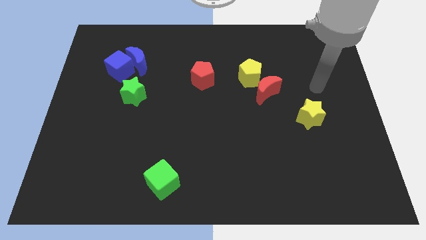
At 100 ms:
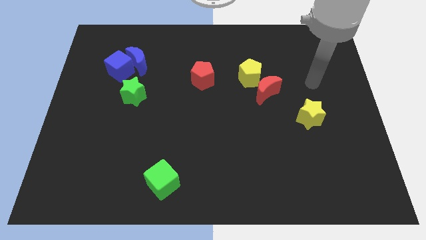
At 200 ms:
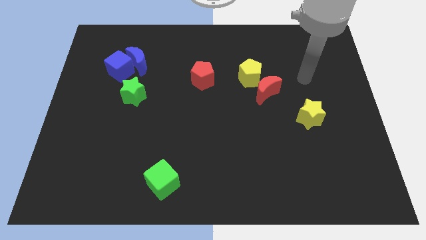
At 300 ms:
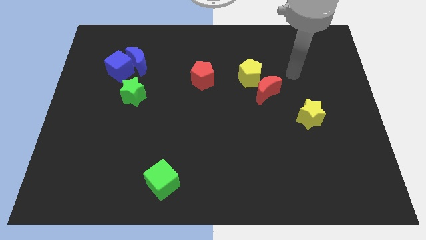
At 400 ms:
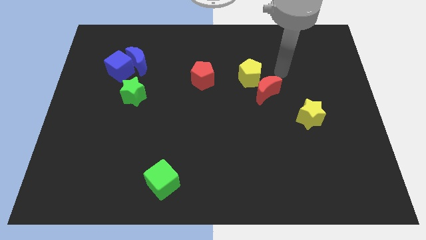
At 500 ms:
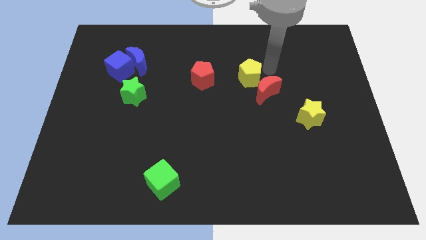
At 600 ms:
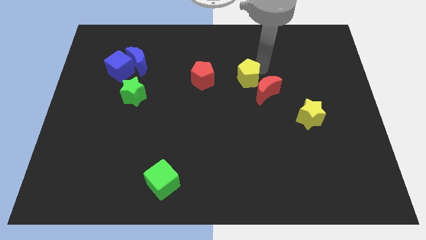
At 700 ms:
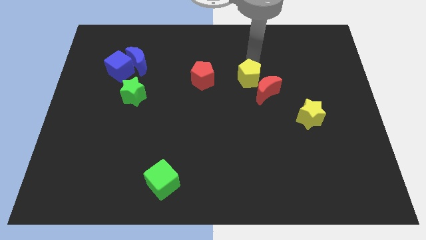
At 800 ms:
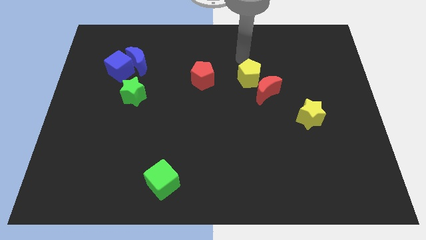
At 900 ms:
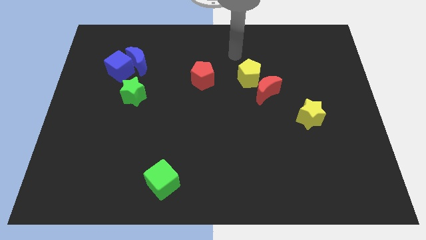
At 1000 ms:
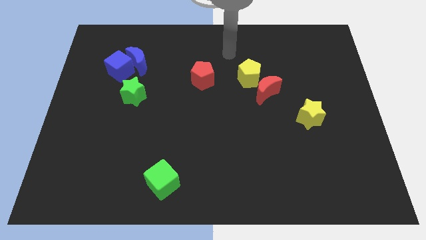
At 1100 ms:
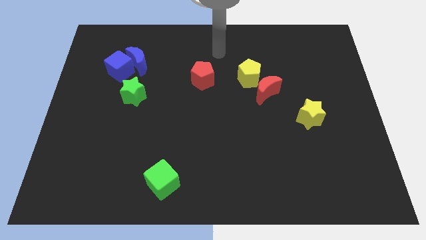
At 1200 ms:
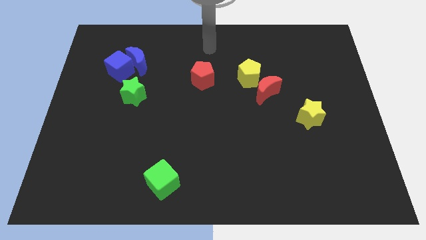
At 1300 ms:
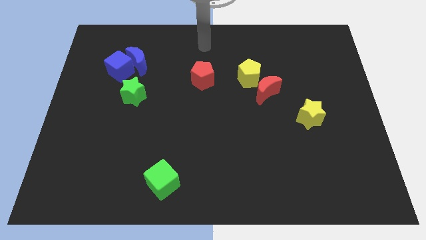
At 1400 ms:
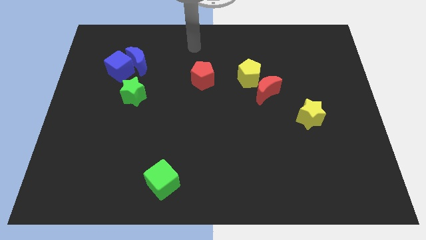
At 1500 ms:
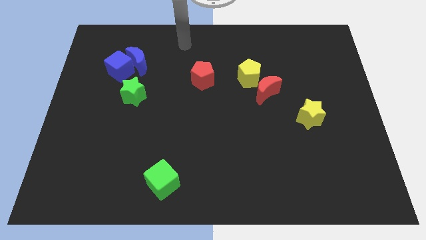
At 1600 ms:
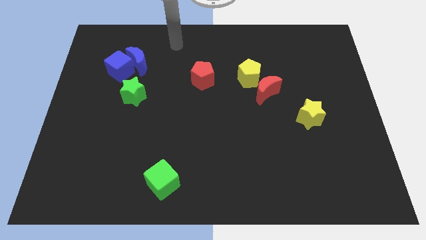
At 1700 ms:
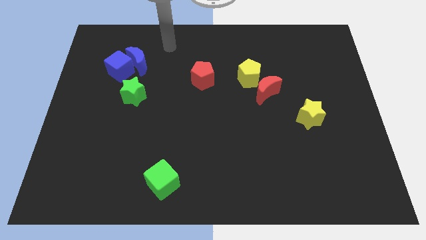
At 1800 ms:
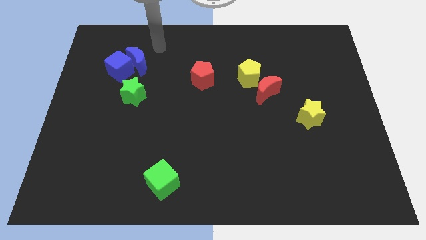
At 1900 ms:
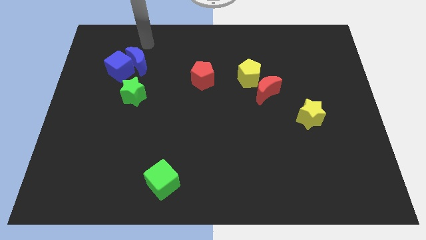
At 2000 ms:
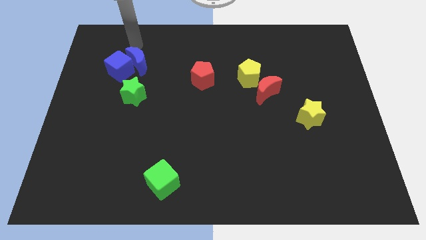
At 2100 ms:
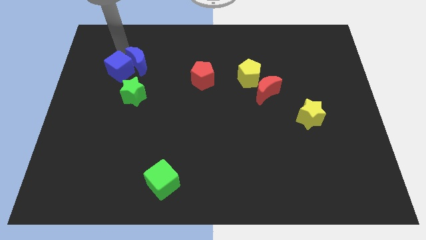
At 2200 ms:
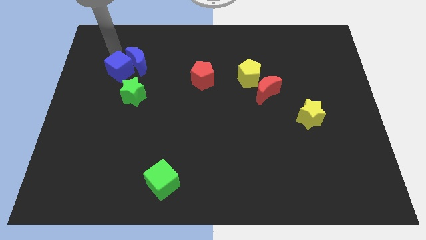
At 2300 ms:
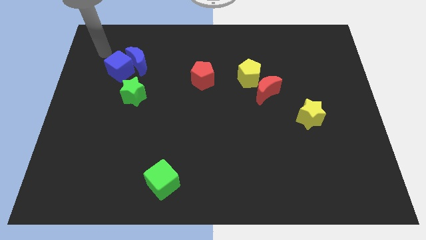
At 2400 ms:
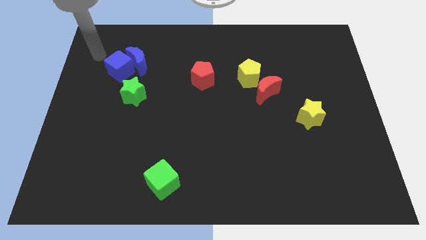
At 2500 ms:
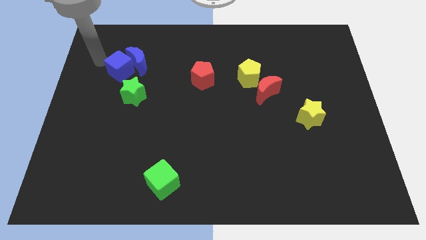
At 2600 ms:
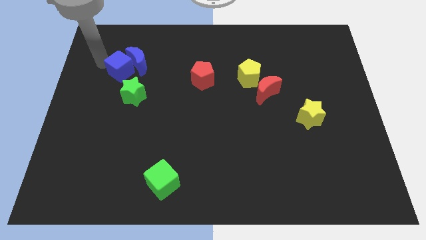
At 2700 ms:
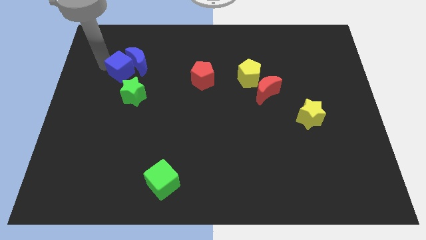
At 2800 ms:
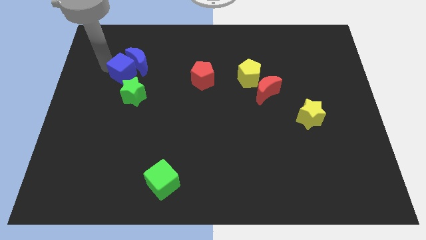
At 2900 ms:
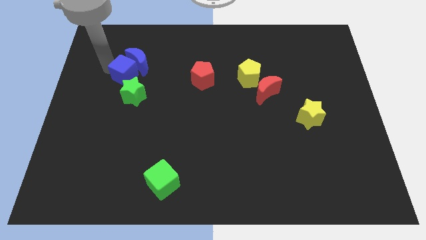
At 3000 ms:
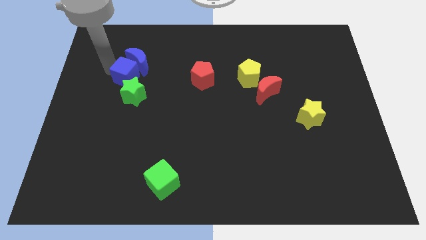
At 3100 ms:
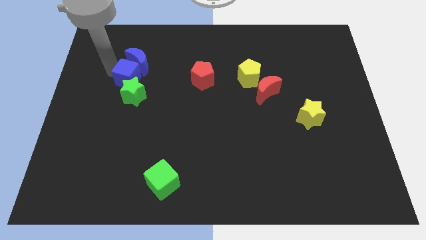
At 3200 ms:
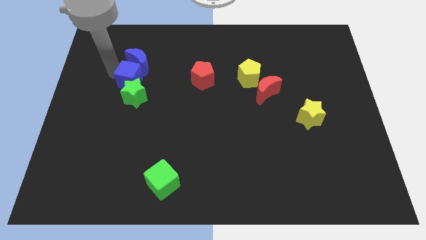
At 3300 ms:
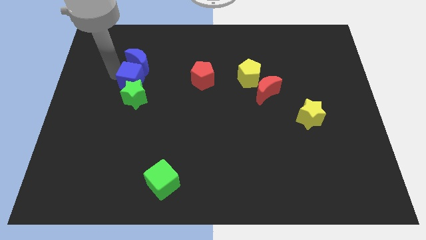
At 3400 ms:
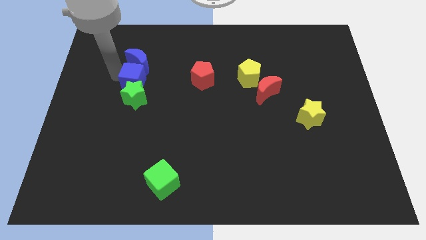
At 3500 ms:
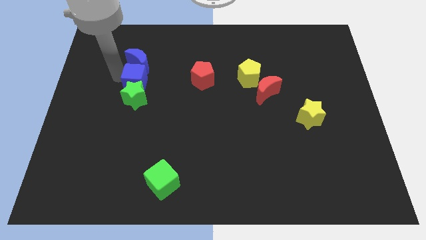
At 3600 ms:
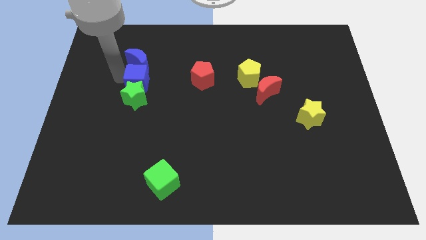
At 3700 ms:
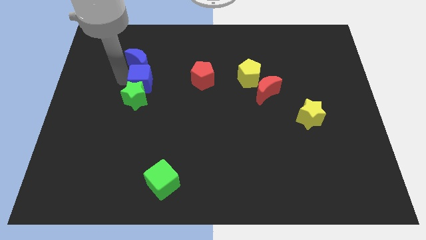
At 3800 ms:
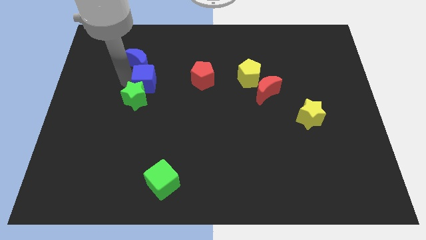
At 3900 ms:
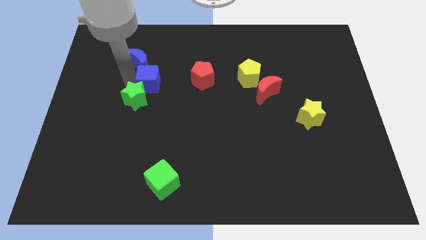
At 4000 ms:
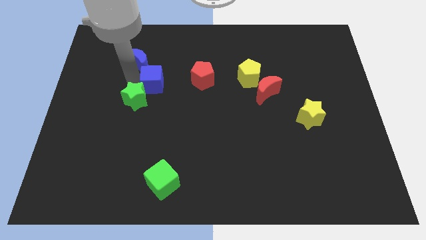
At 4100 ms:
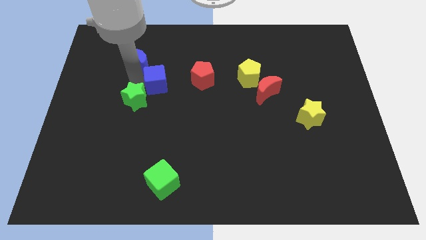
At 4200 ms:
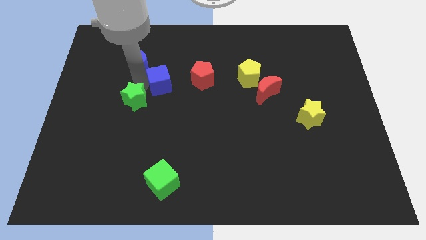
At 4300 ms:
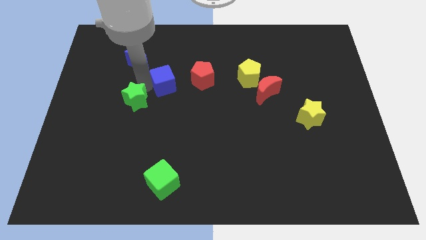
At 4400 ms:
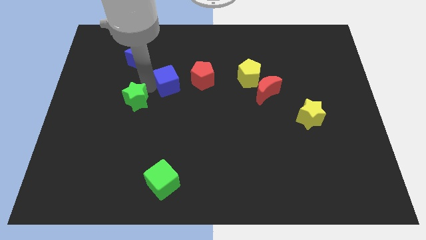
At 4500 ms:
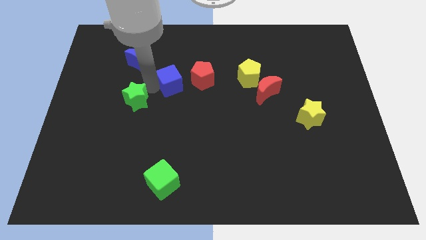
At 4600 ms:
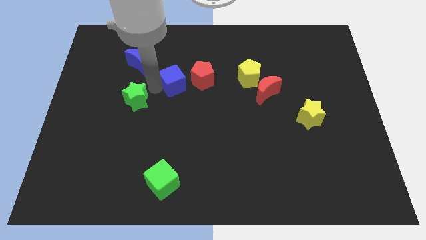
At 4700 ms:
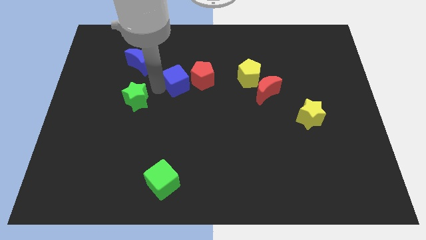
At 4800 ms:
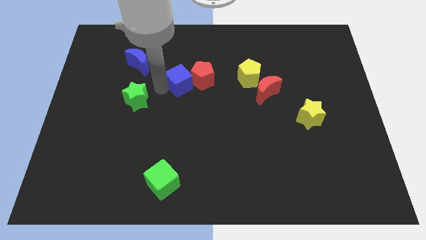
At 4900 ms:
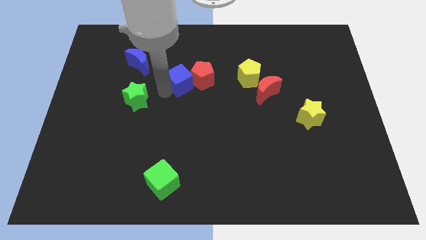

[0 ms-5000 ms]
put the blue cube diagonally up and to the left of the red pentagon

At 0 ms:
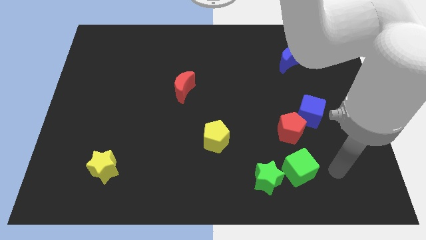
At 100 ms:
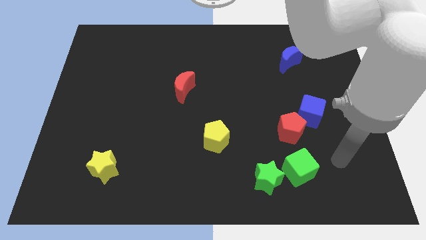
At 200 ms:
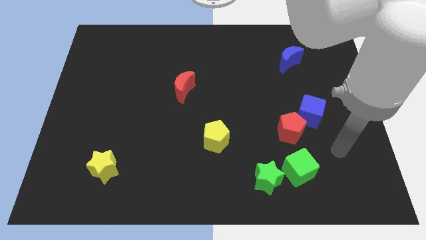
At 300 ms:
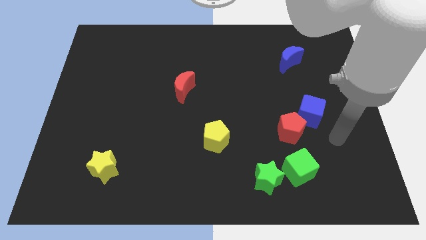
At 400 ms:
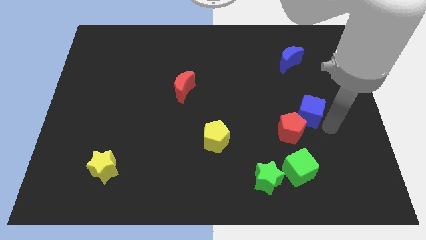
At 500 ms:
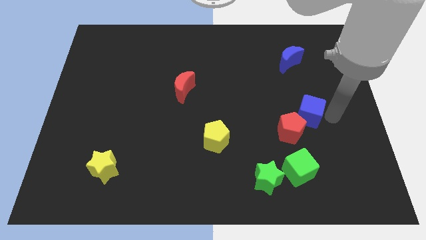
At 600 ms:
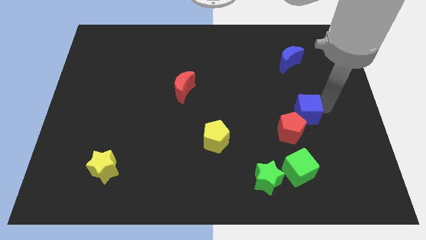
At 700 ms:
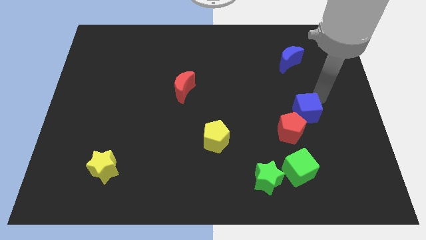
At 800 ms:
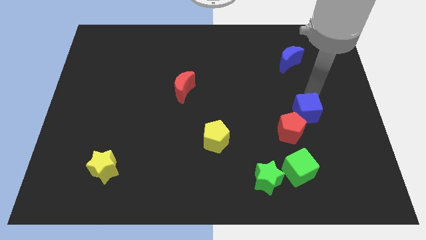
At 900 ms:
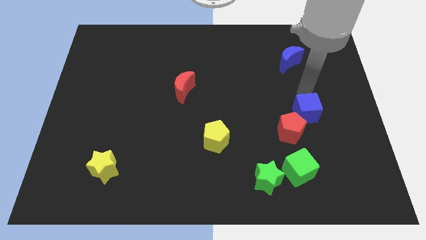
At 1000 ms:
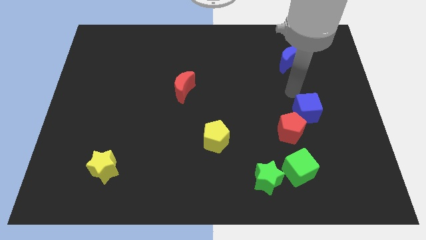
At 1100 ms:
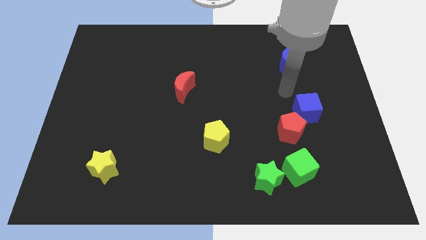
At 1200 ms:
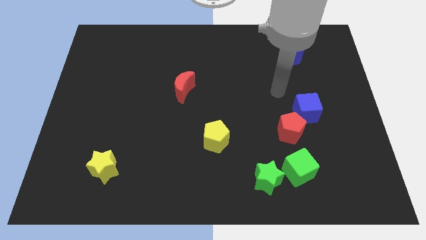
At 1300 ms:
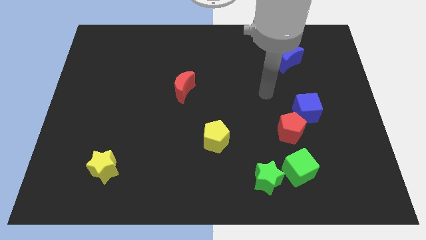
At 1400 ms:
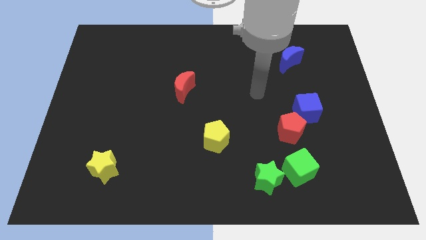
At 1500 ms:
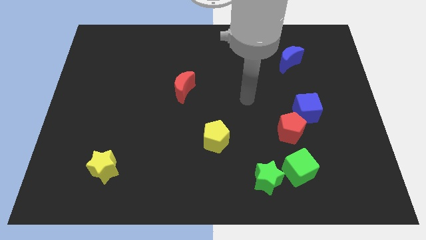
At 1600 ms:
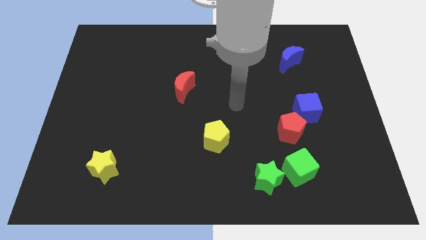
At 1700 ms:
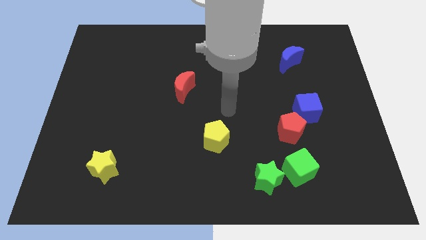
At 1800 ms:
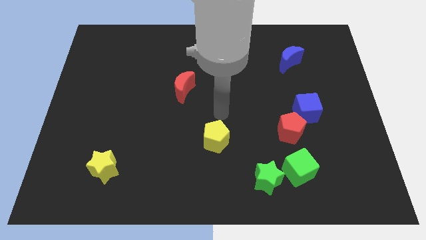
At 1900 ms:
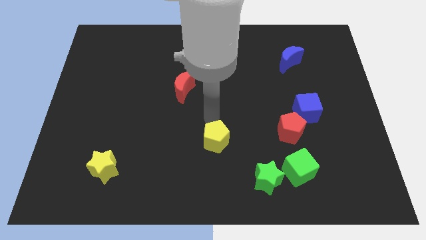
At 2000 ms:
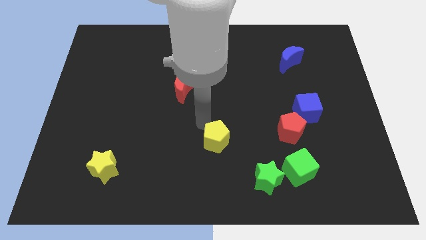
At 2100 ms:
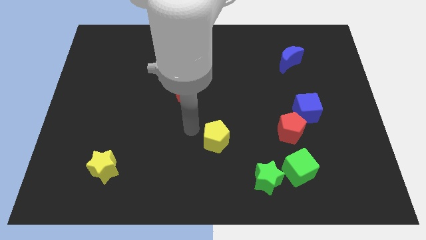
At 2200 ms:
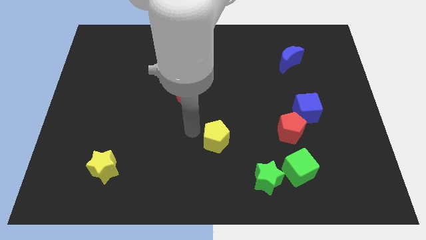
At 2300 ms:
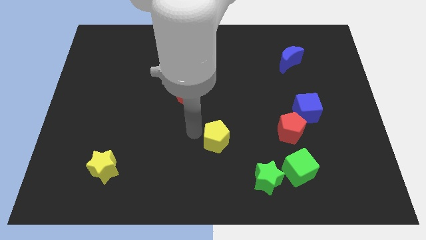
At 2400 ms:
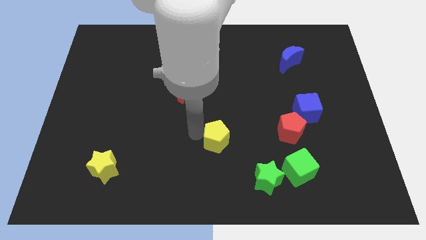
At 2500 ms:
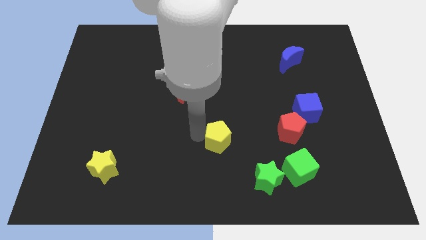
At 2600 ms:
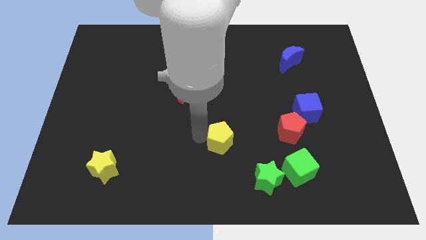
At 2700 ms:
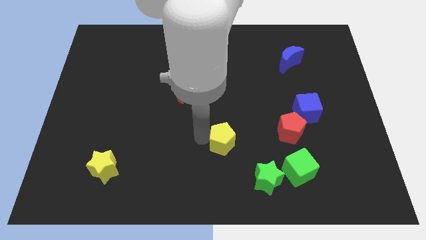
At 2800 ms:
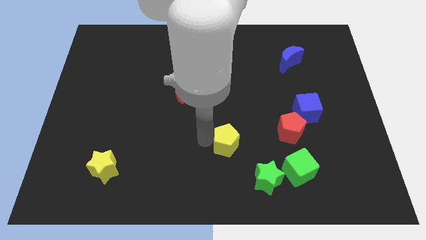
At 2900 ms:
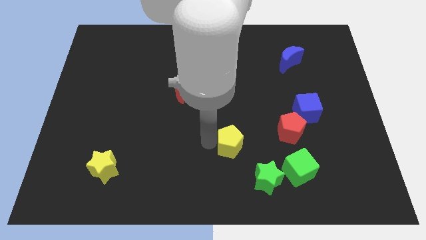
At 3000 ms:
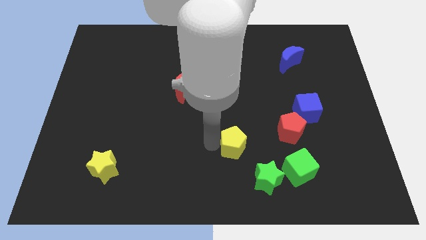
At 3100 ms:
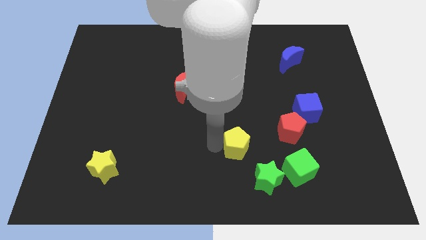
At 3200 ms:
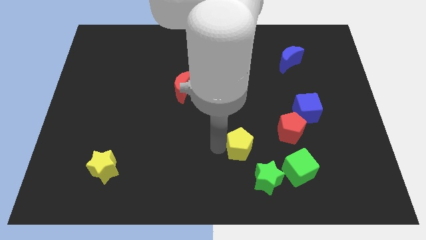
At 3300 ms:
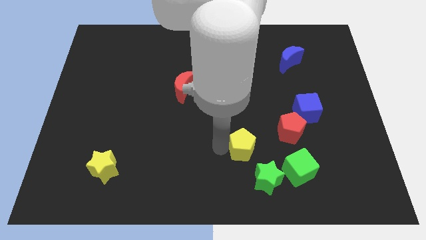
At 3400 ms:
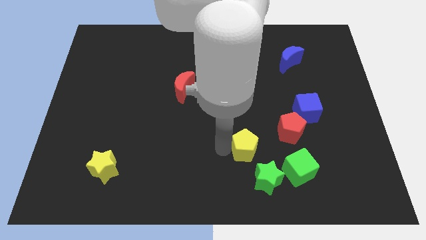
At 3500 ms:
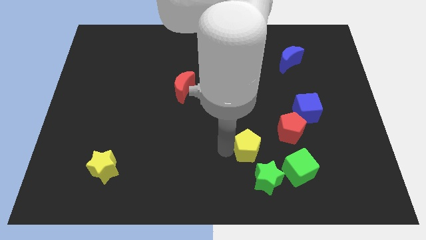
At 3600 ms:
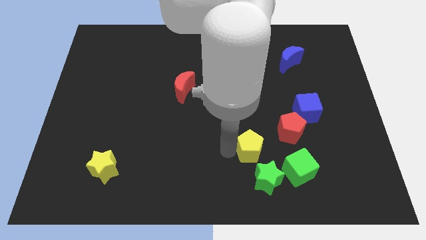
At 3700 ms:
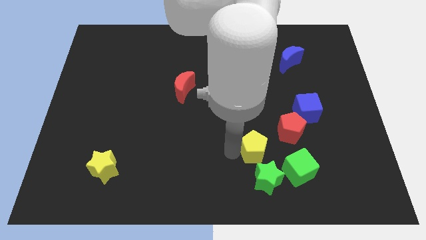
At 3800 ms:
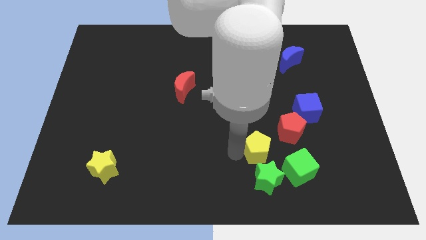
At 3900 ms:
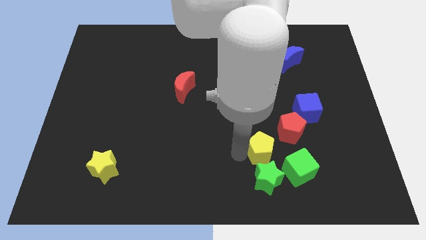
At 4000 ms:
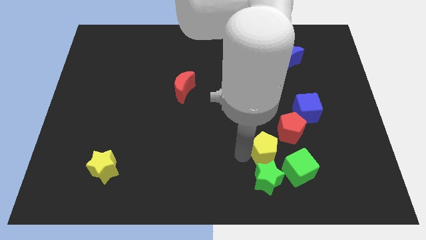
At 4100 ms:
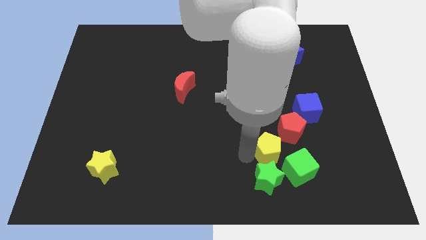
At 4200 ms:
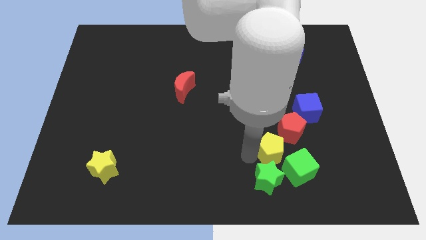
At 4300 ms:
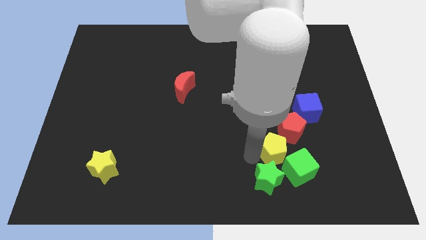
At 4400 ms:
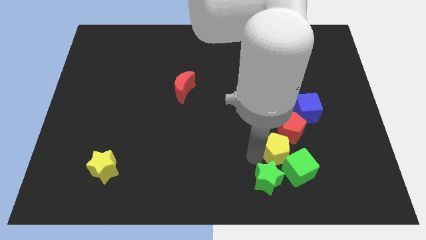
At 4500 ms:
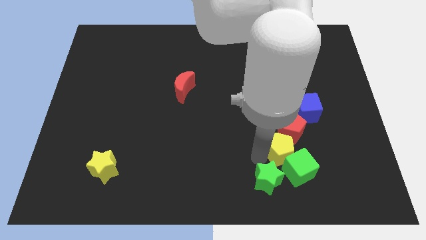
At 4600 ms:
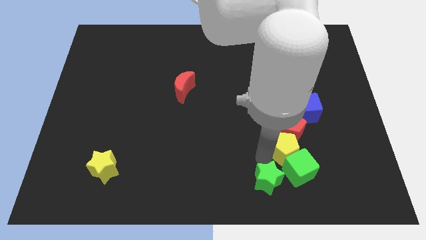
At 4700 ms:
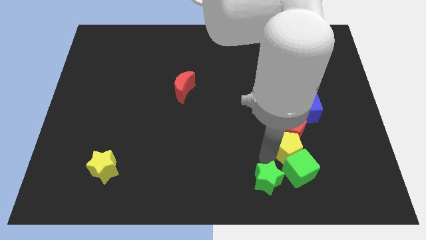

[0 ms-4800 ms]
put the yellow pentagon diagonally up and to the right of the green cube
